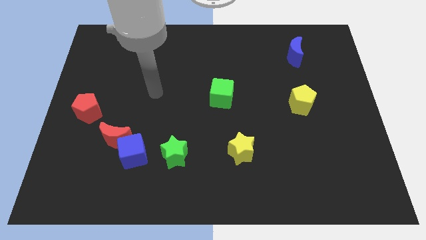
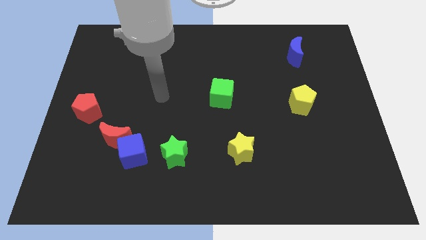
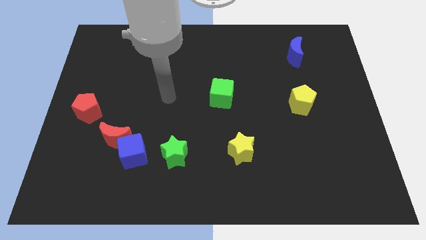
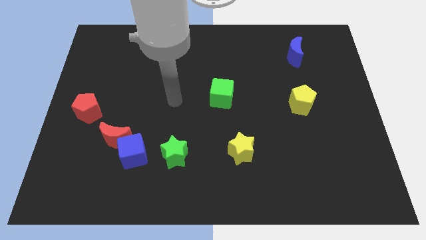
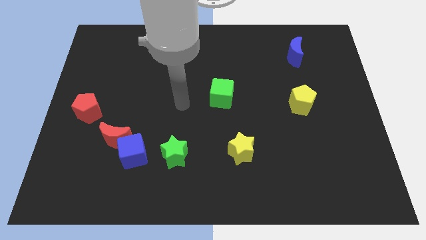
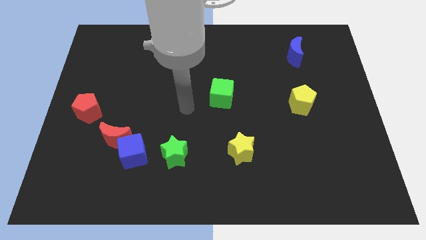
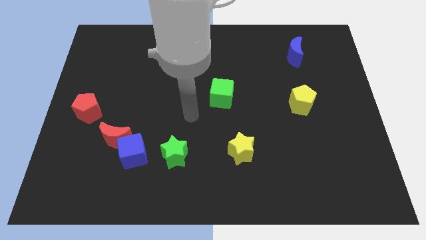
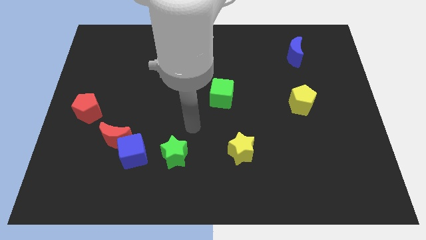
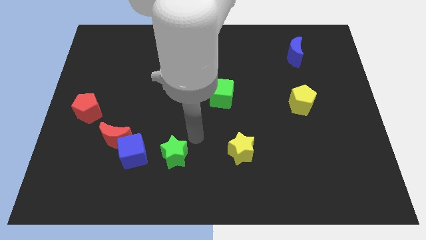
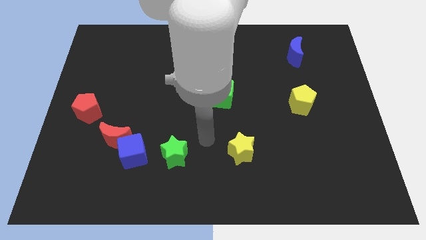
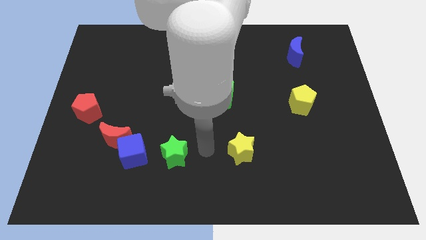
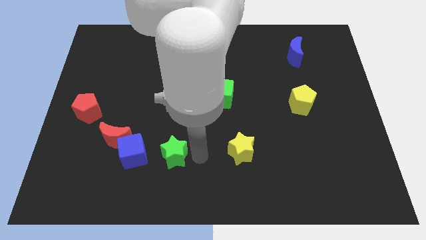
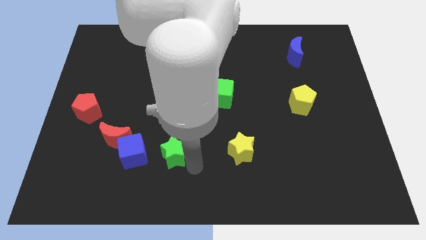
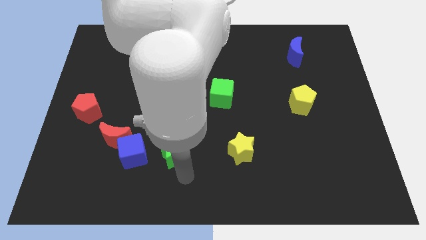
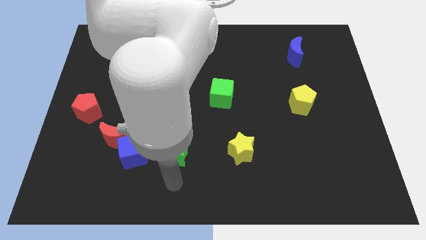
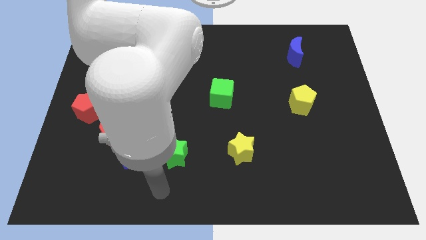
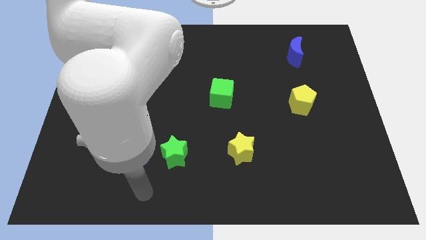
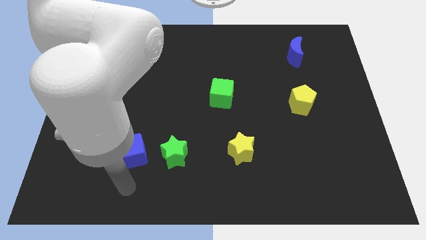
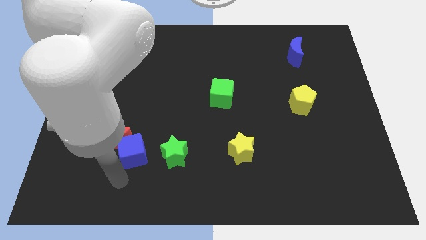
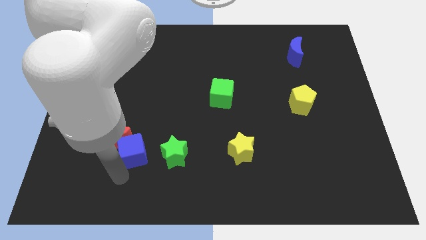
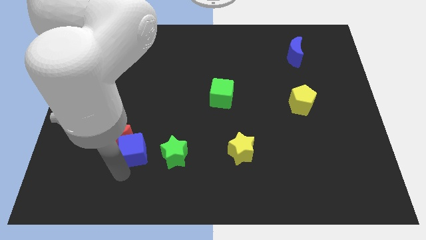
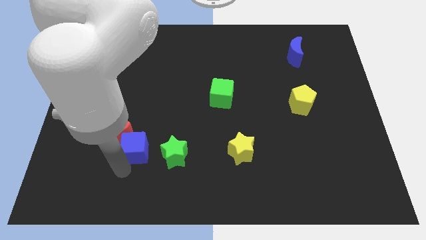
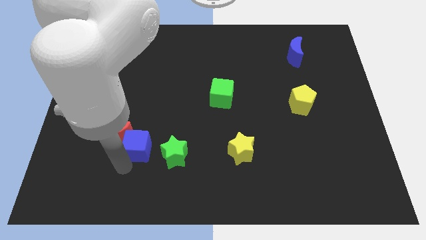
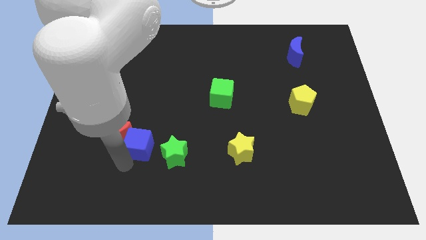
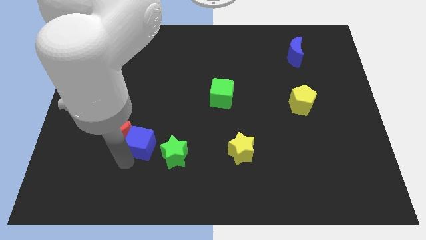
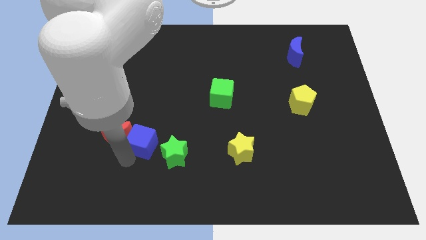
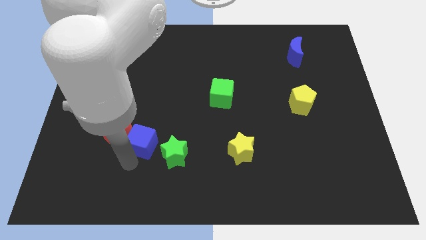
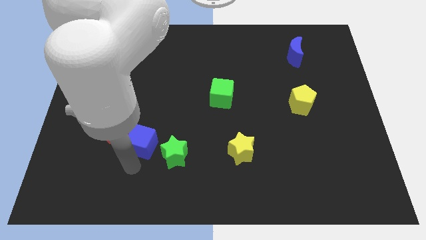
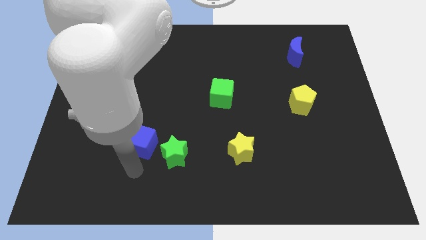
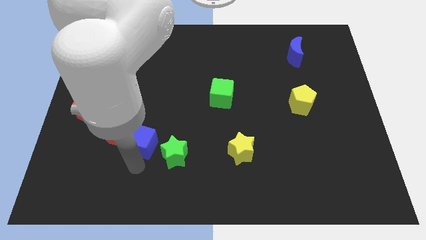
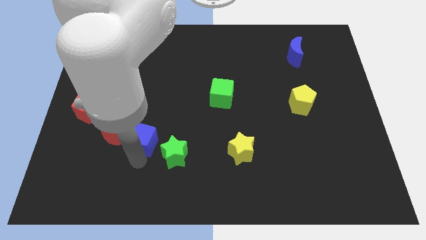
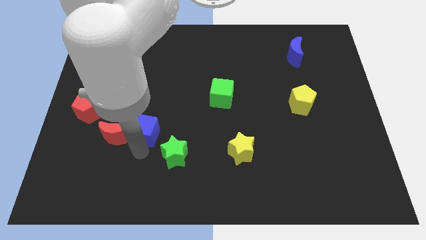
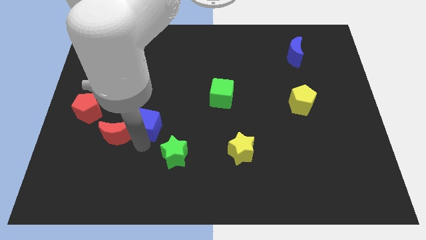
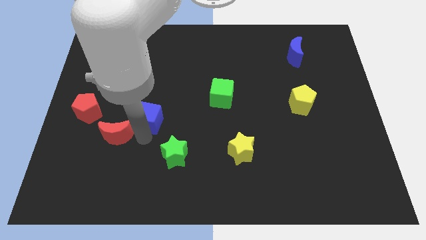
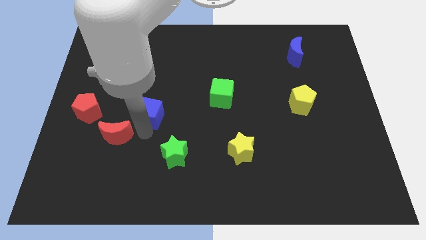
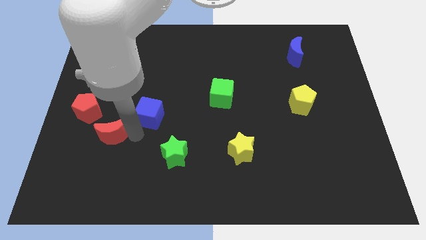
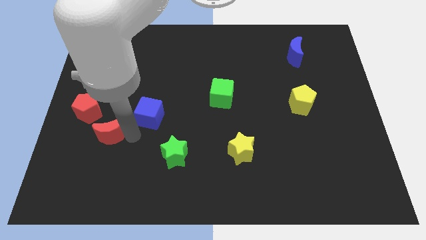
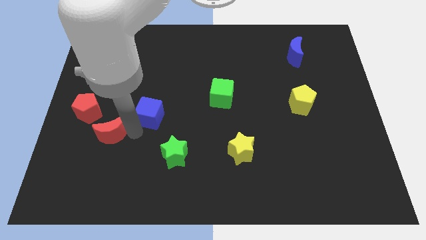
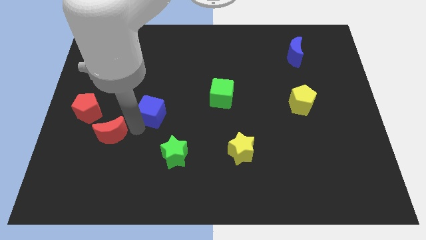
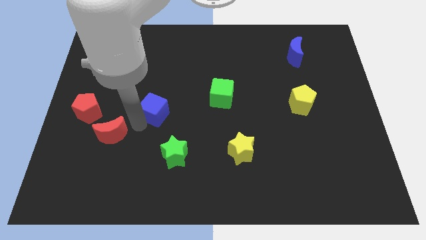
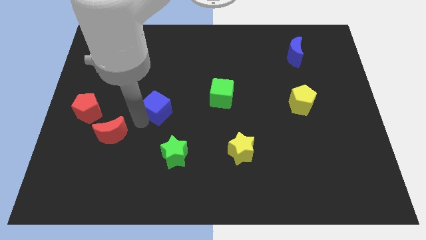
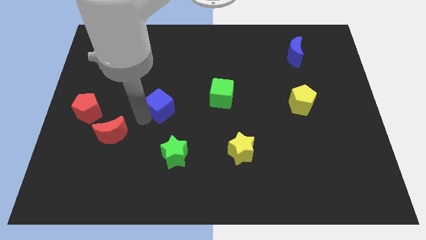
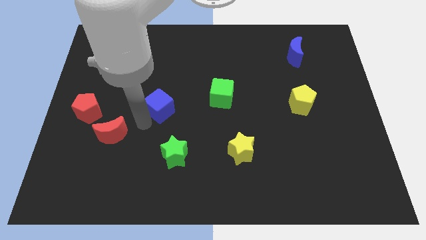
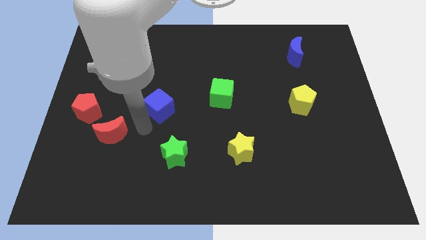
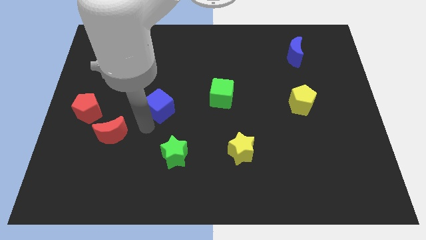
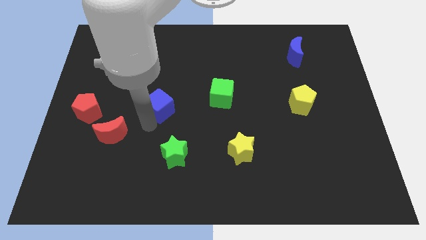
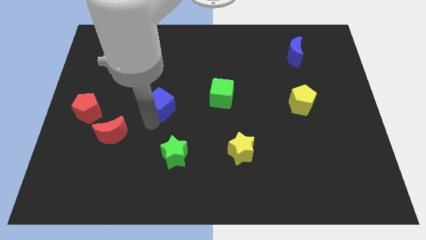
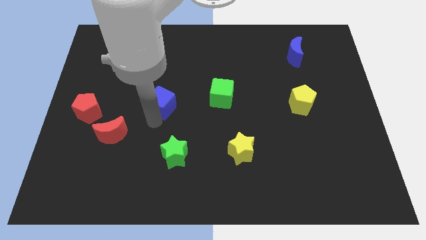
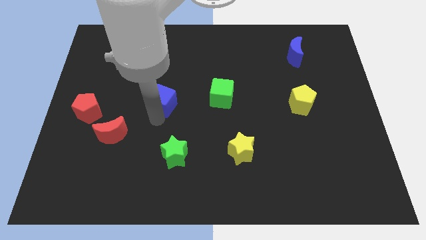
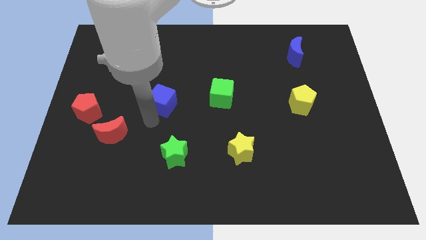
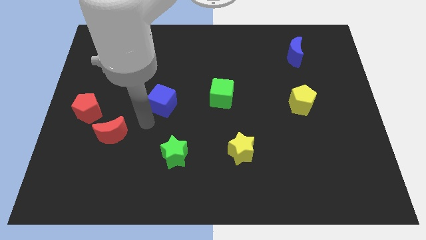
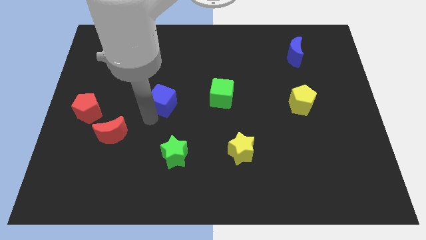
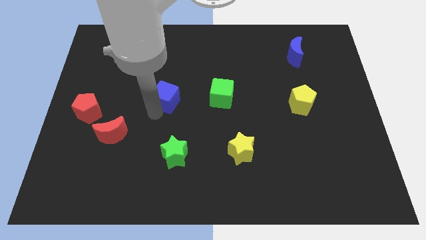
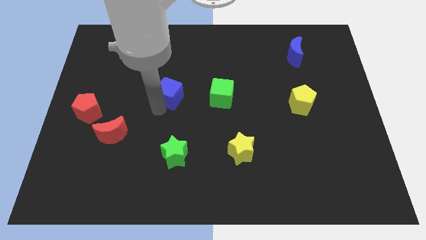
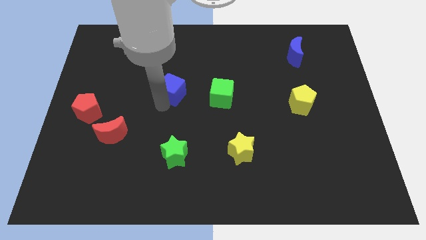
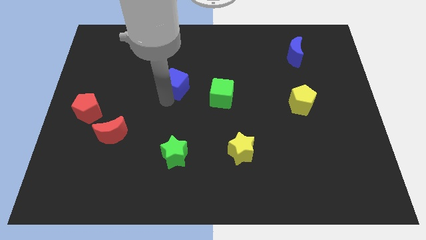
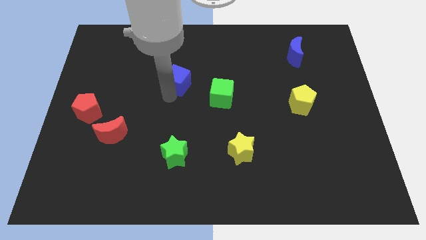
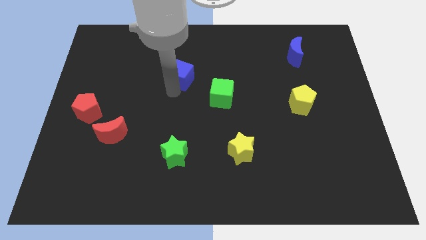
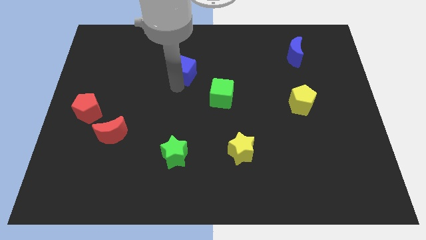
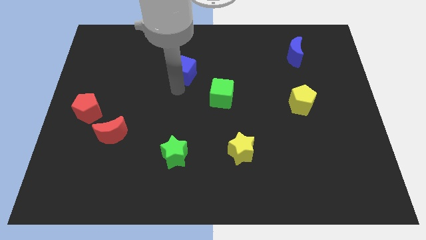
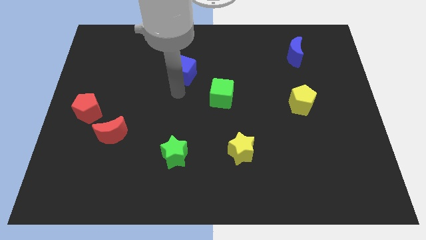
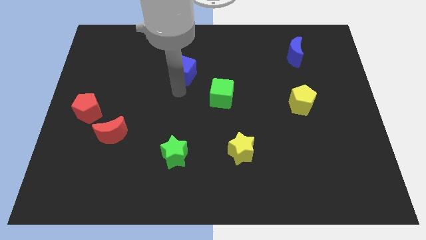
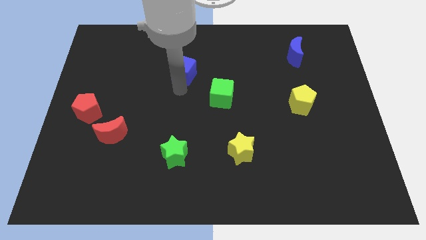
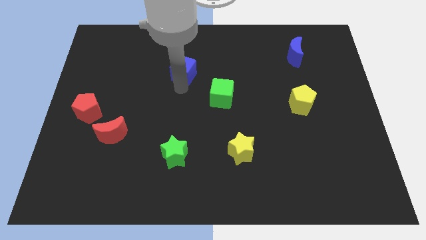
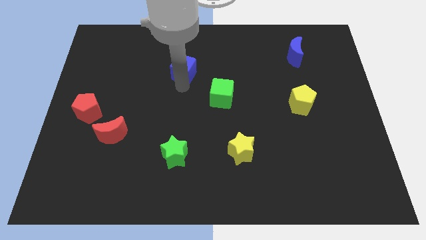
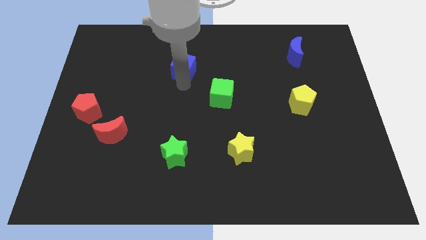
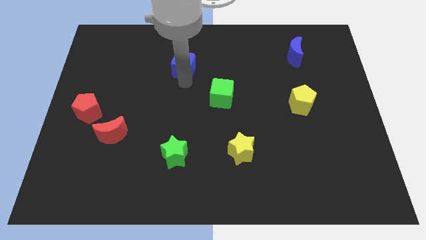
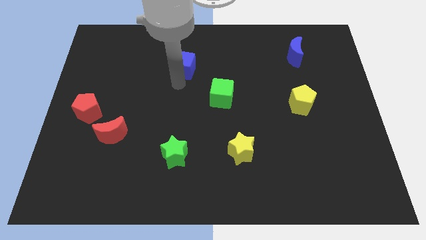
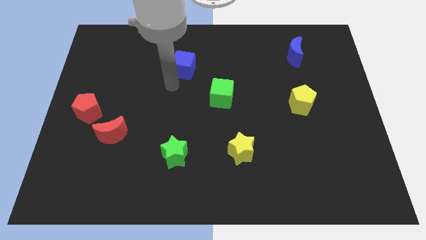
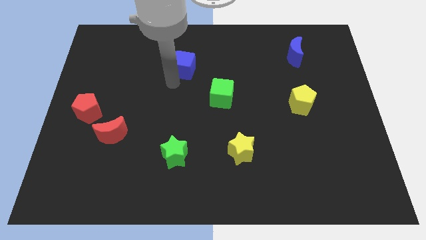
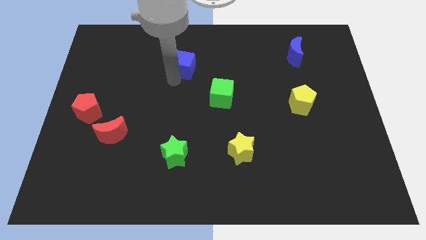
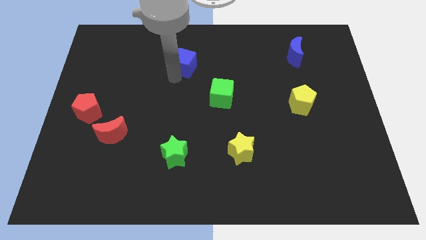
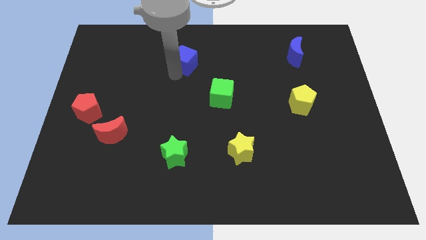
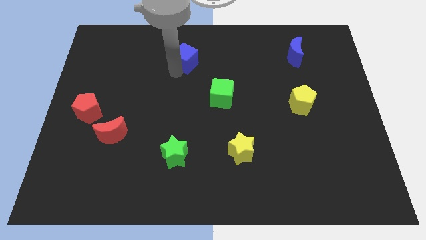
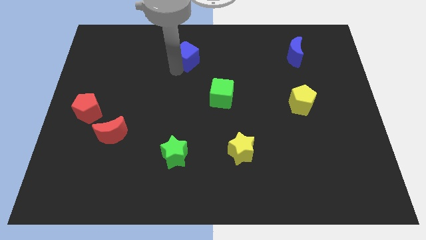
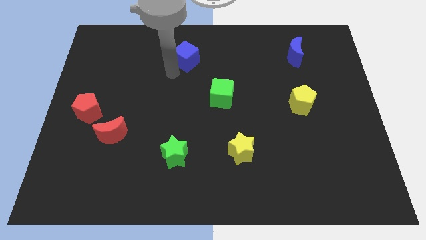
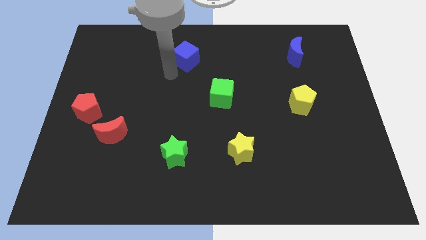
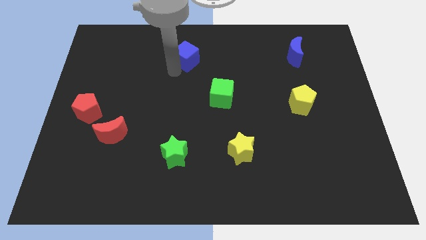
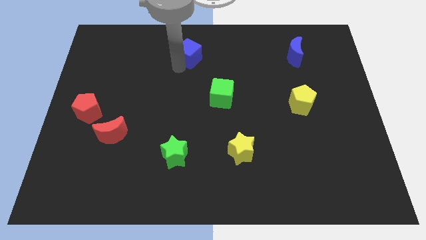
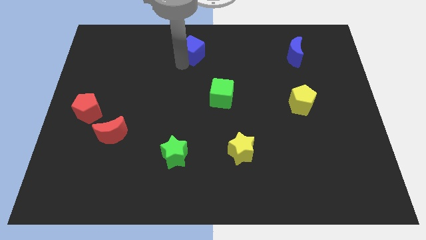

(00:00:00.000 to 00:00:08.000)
move the blue cube to the top
